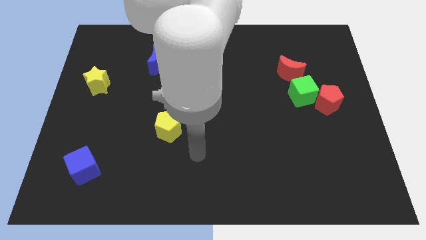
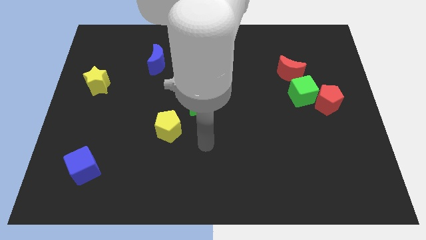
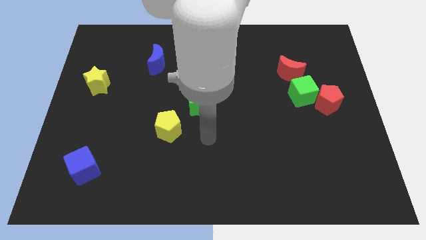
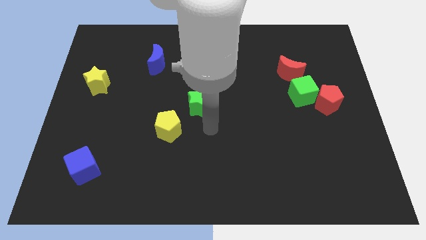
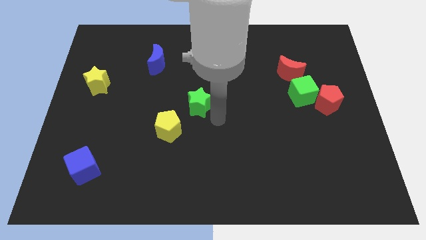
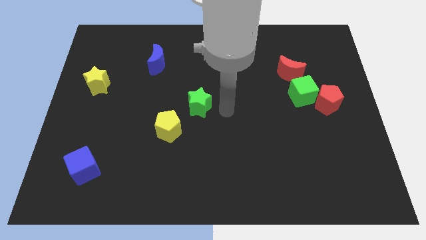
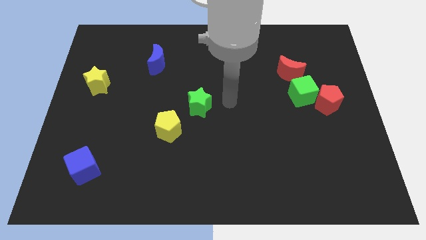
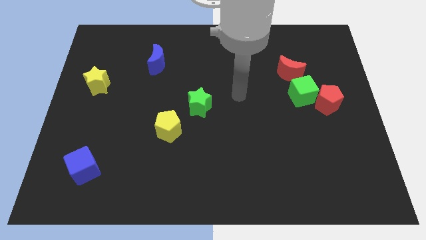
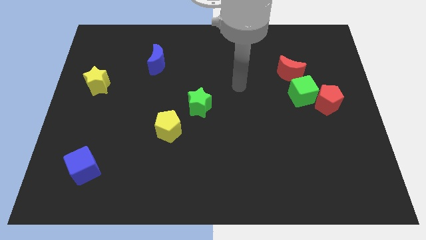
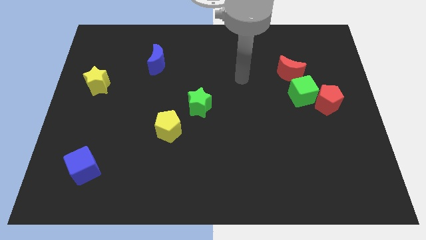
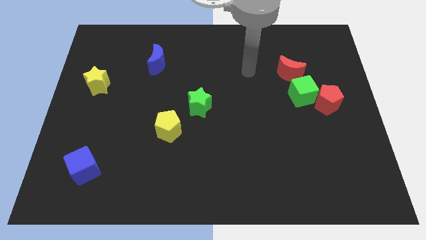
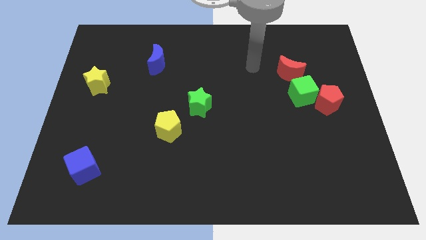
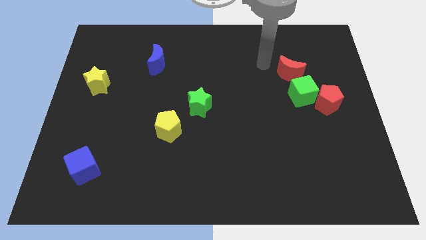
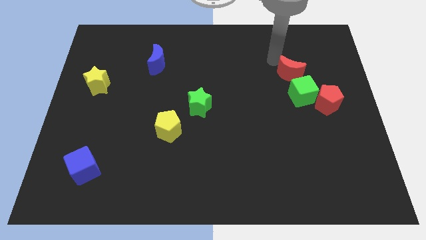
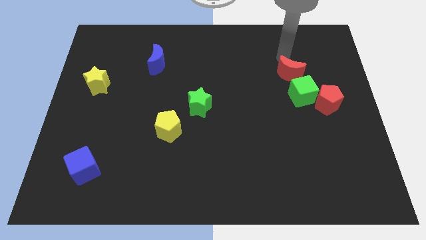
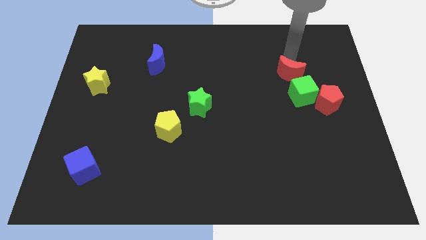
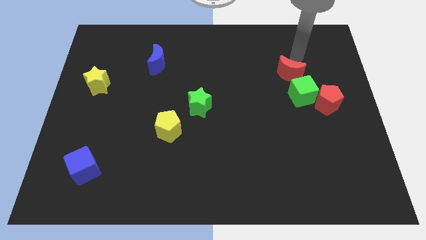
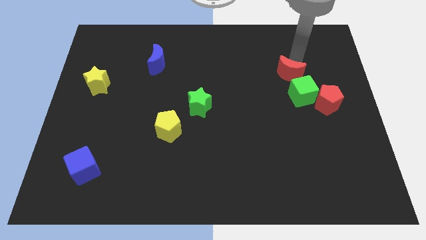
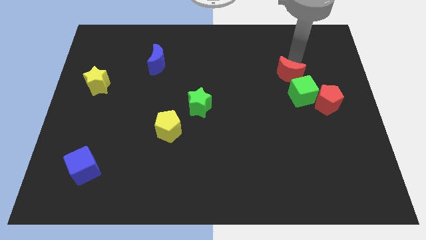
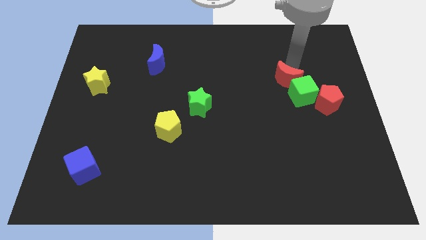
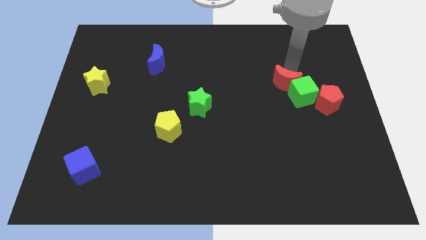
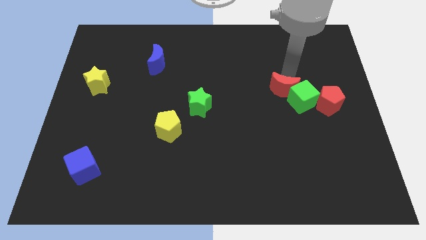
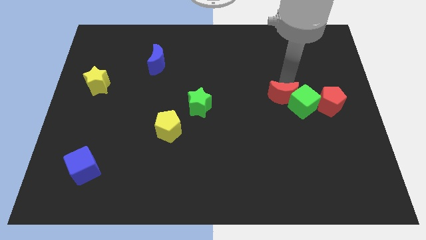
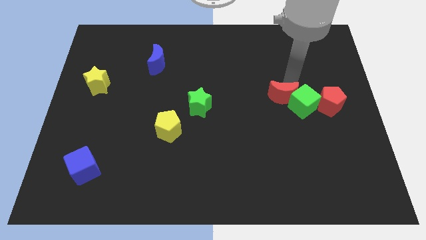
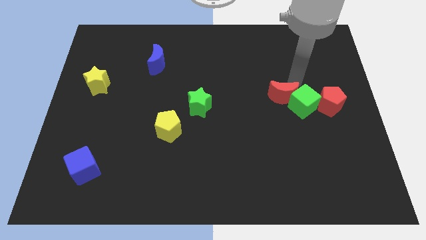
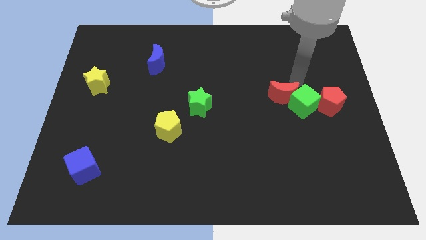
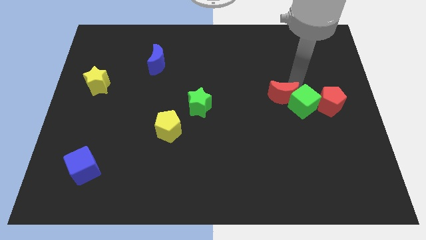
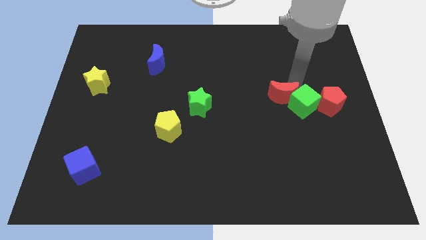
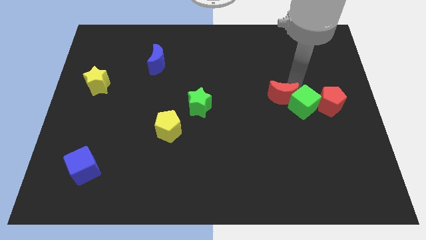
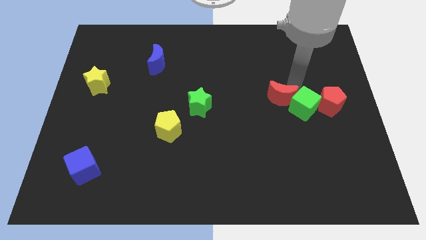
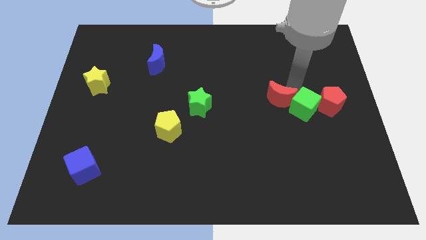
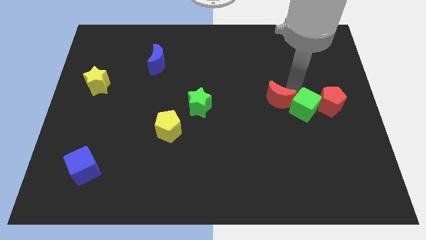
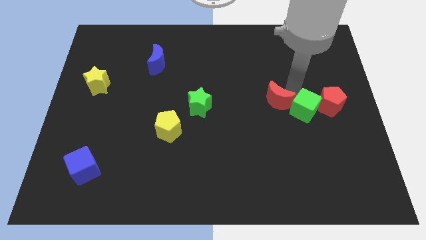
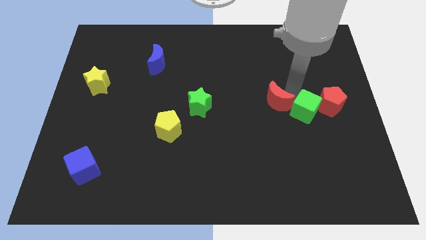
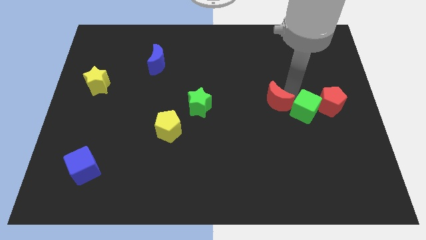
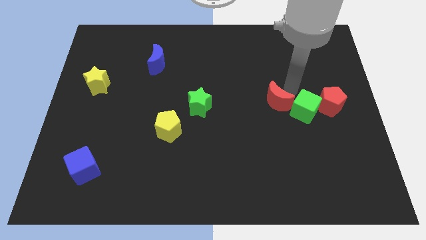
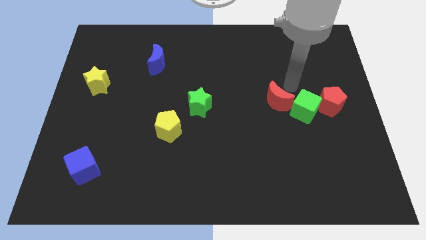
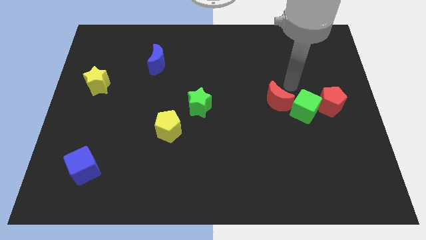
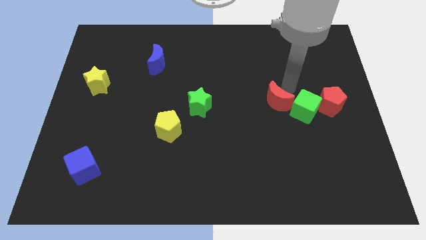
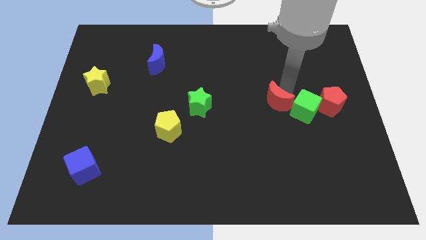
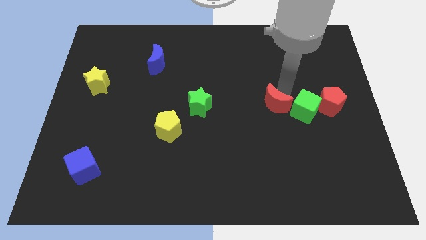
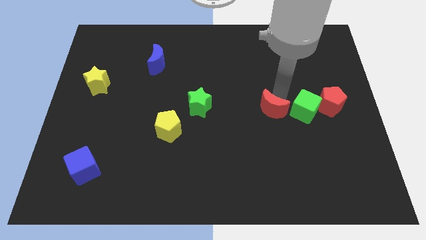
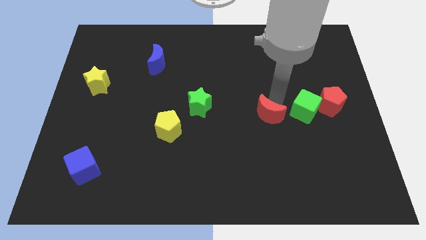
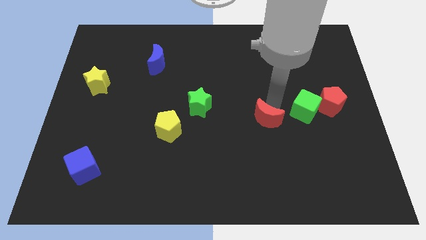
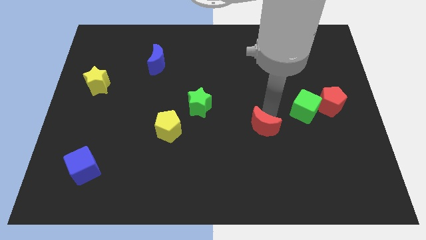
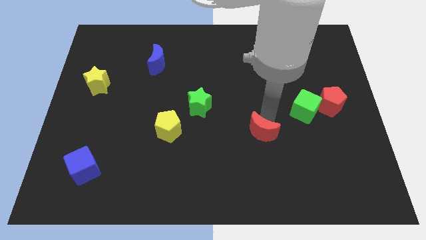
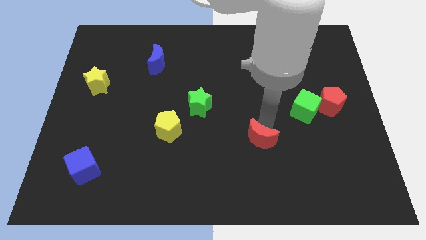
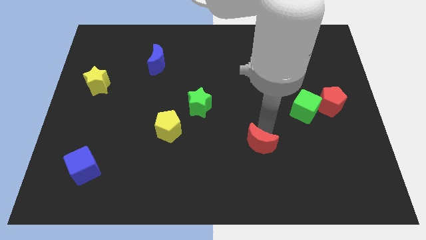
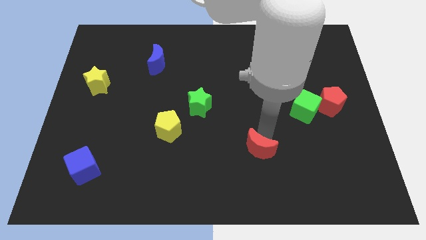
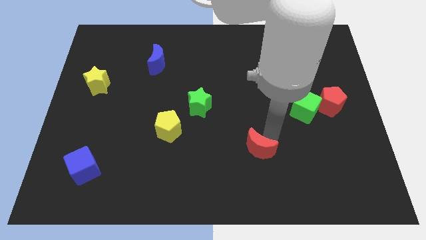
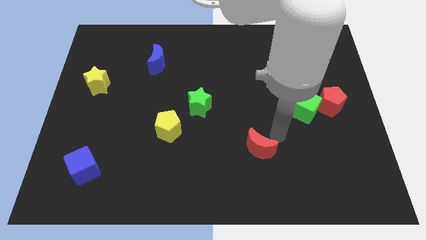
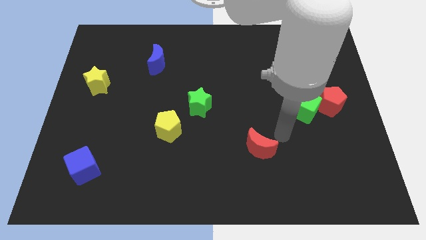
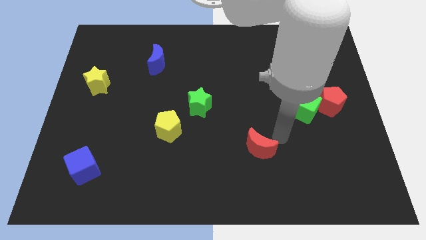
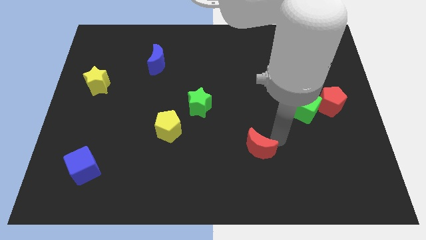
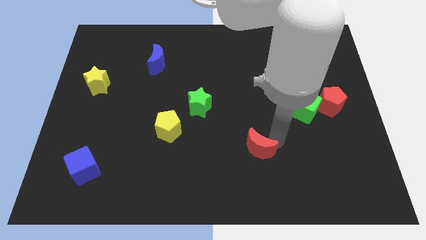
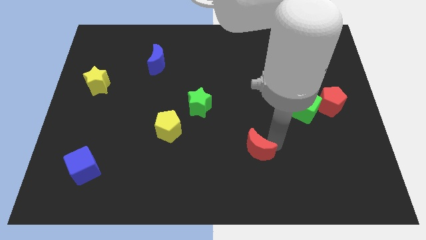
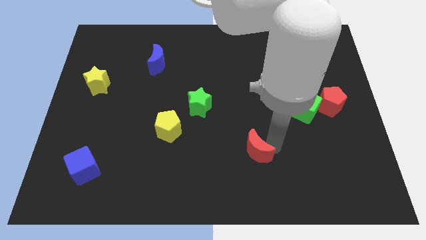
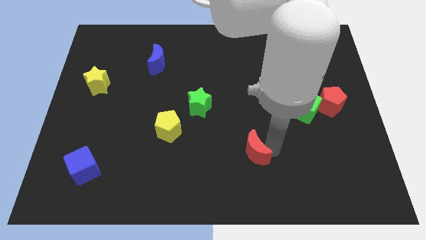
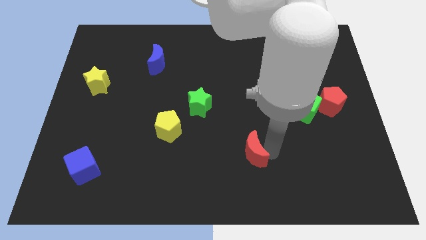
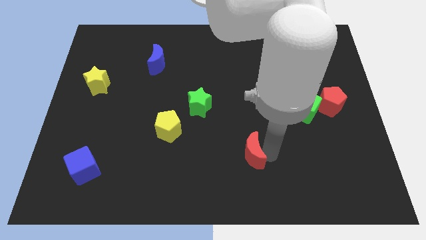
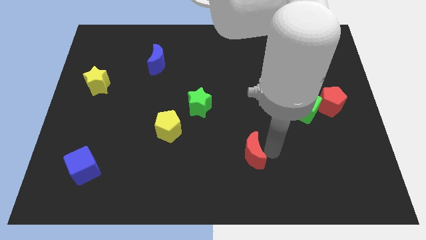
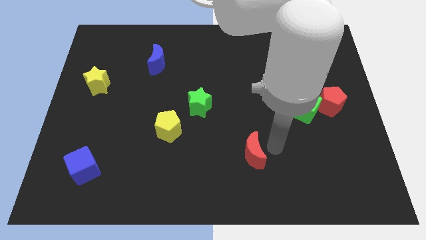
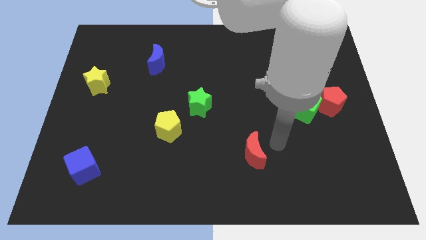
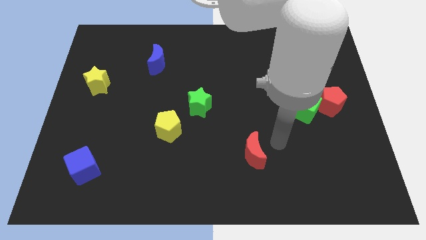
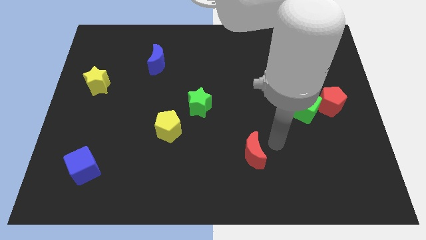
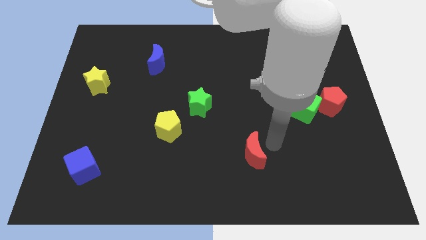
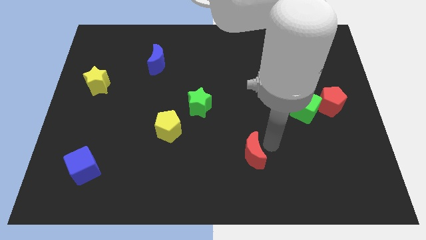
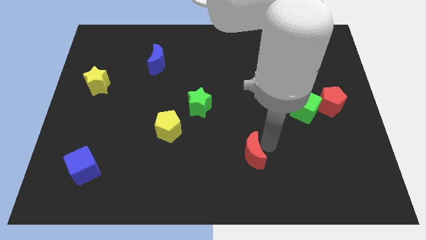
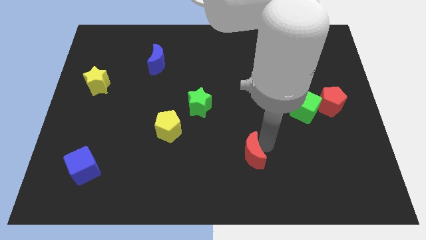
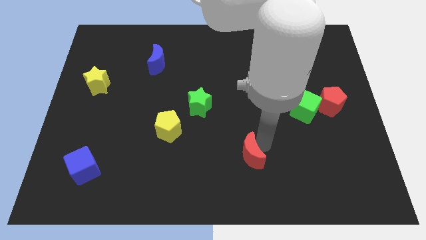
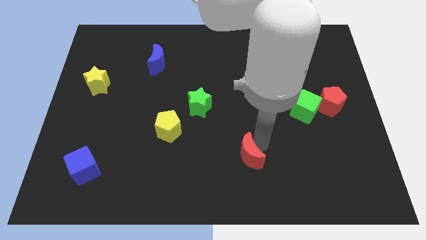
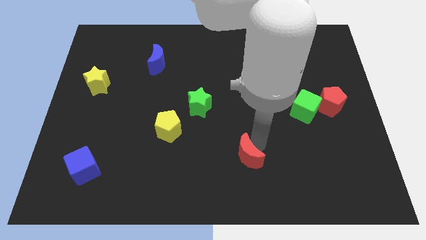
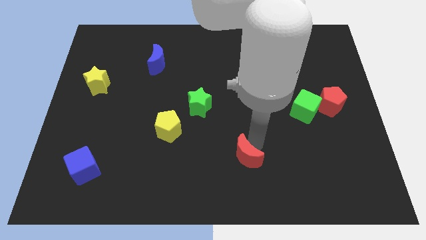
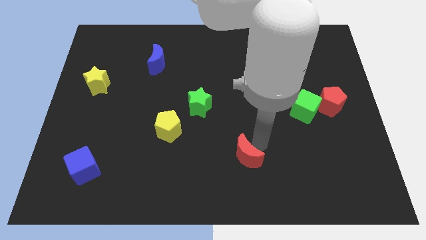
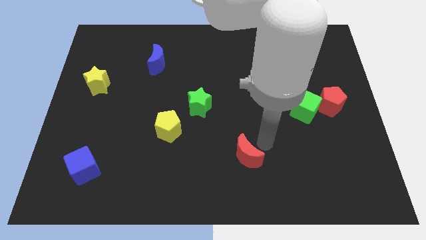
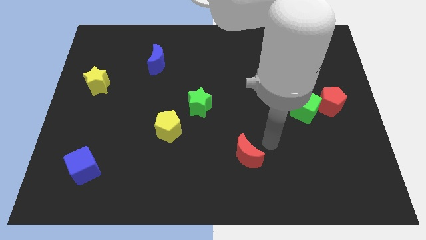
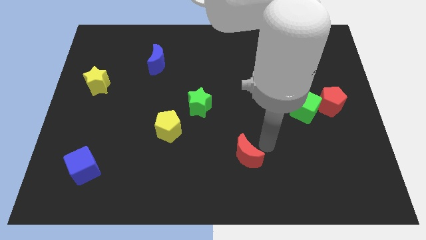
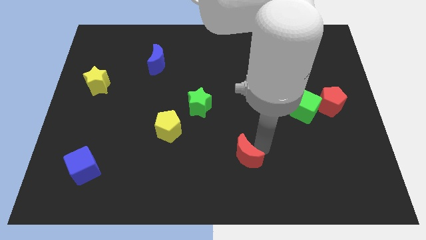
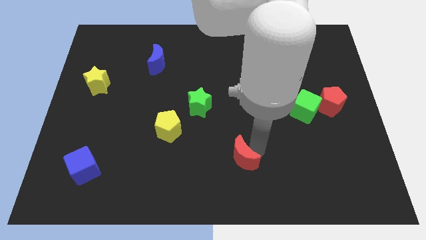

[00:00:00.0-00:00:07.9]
slide the red moon to the bottom side
